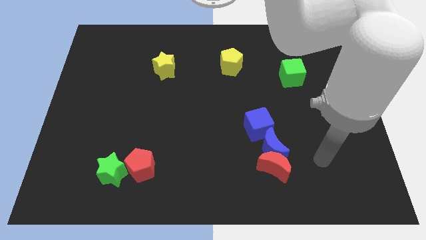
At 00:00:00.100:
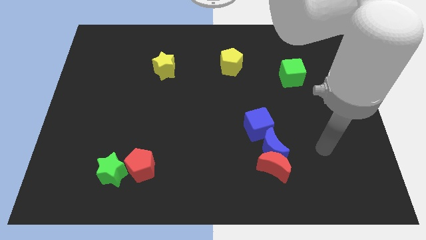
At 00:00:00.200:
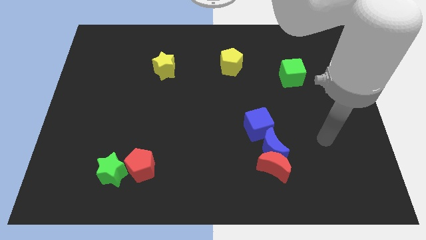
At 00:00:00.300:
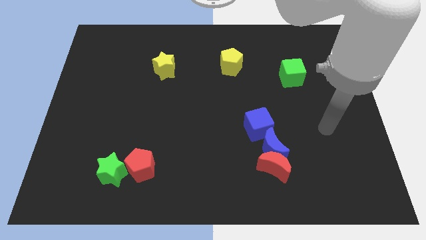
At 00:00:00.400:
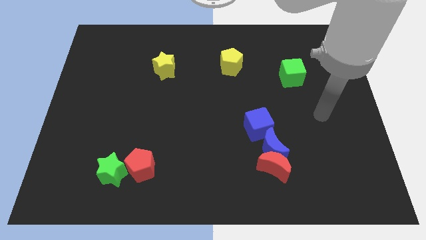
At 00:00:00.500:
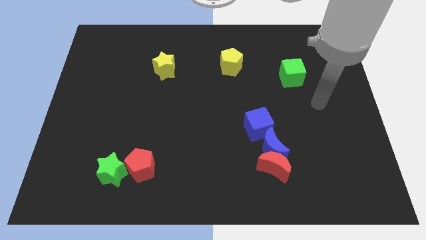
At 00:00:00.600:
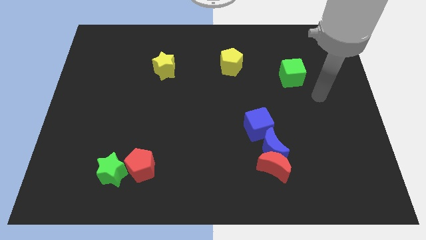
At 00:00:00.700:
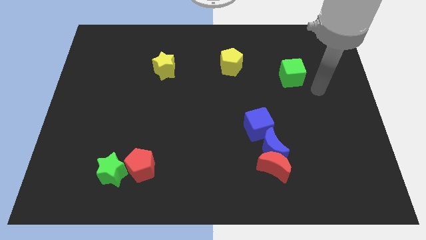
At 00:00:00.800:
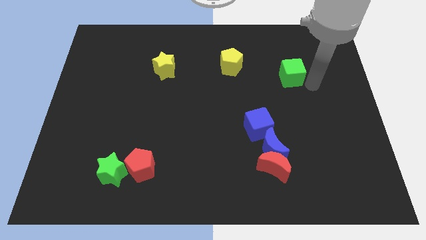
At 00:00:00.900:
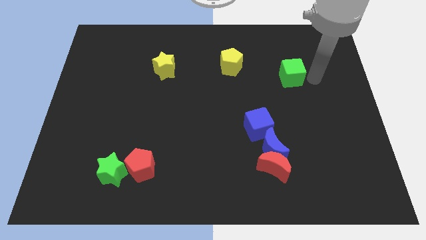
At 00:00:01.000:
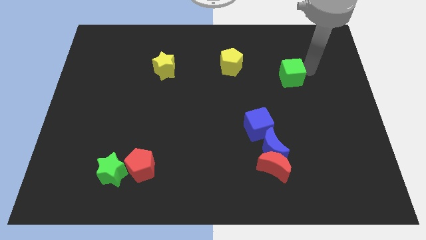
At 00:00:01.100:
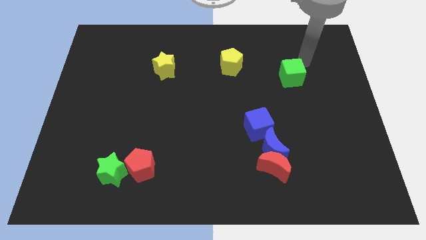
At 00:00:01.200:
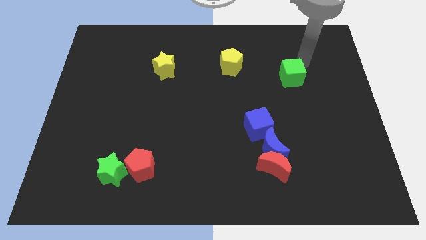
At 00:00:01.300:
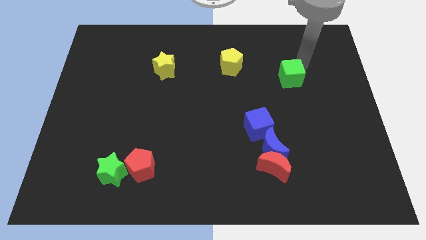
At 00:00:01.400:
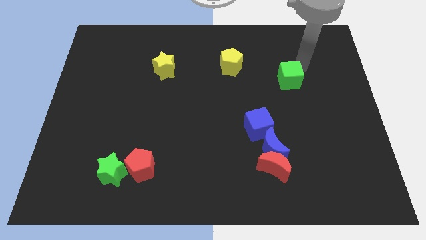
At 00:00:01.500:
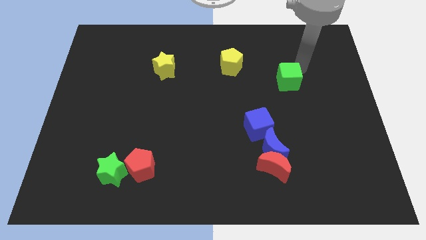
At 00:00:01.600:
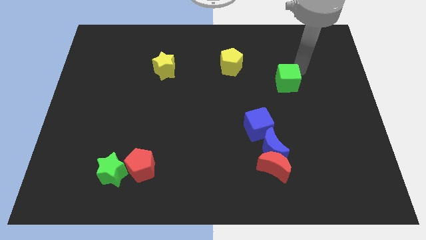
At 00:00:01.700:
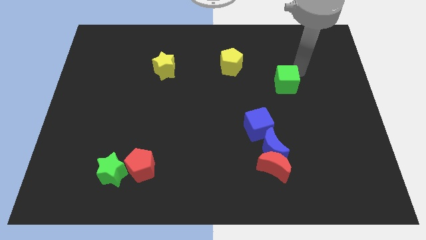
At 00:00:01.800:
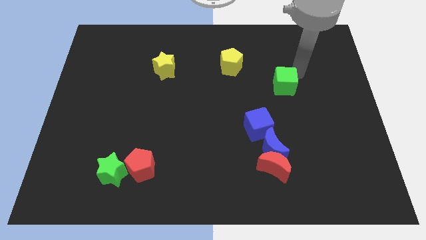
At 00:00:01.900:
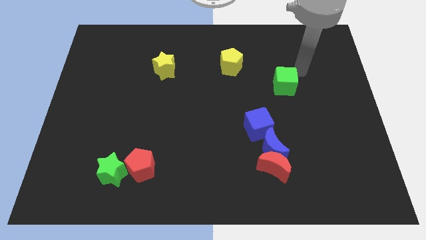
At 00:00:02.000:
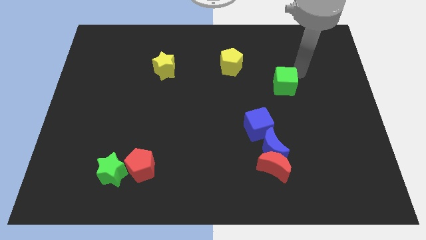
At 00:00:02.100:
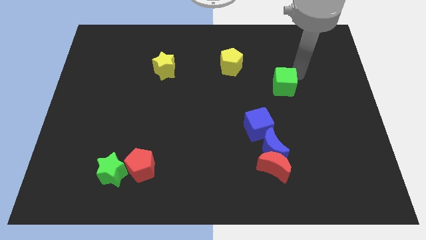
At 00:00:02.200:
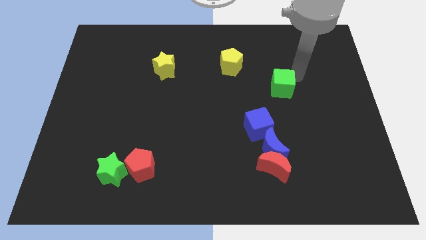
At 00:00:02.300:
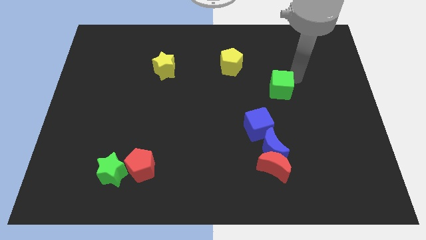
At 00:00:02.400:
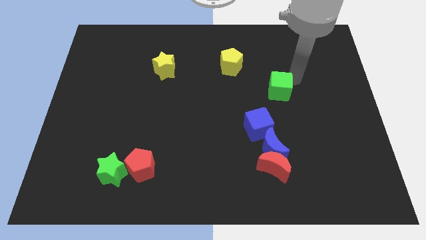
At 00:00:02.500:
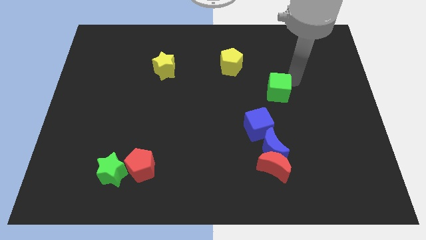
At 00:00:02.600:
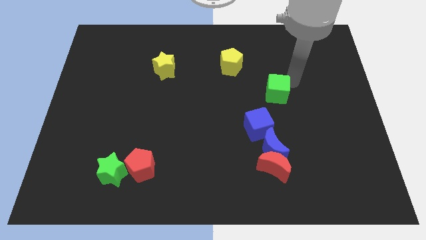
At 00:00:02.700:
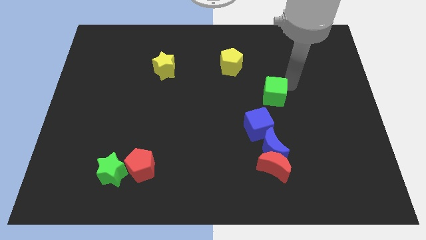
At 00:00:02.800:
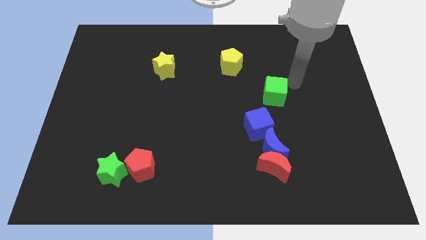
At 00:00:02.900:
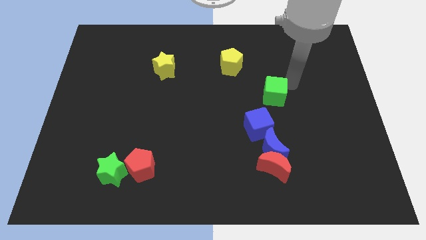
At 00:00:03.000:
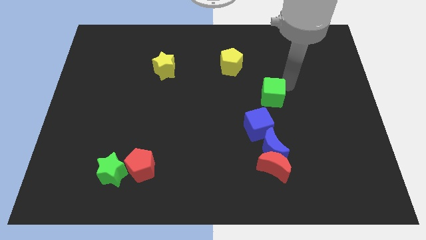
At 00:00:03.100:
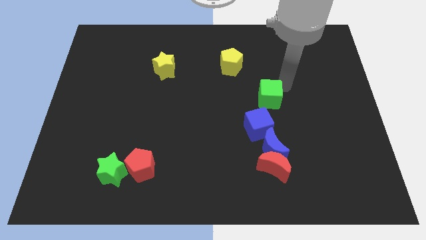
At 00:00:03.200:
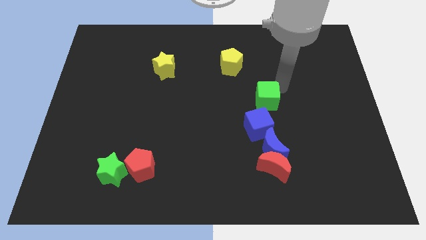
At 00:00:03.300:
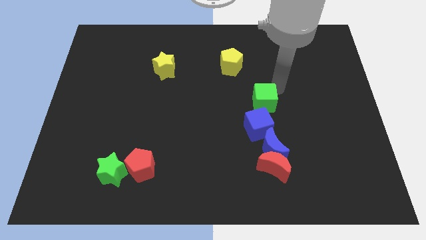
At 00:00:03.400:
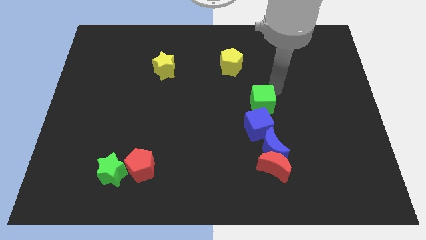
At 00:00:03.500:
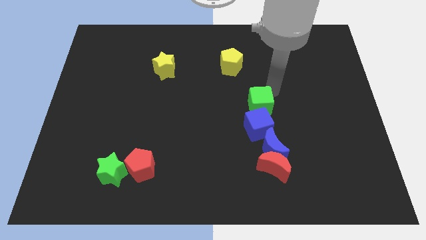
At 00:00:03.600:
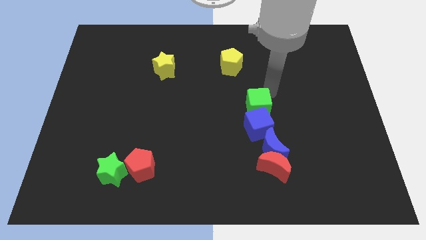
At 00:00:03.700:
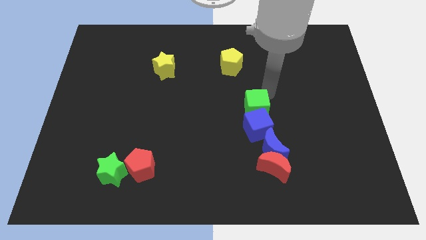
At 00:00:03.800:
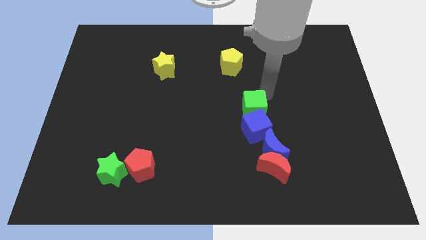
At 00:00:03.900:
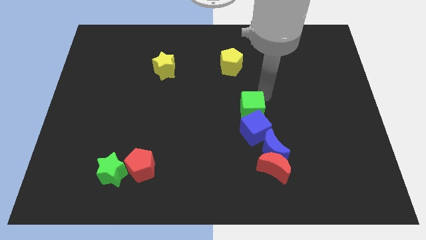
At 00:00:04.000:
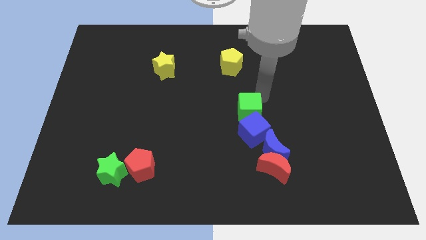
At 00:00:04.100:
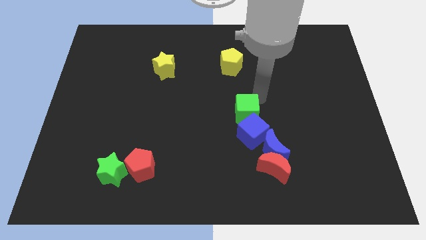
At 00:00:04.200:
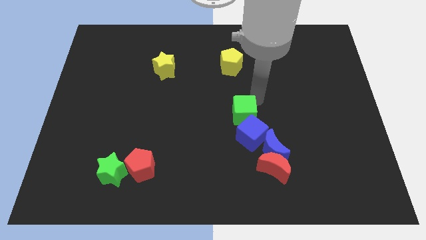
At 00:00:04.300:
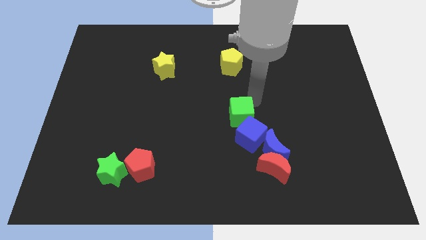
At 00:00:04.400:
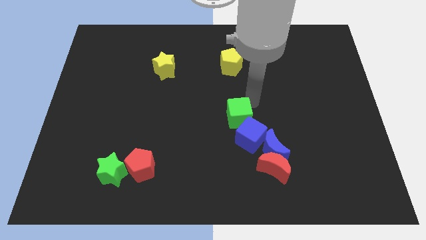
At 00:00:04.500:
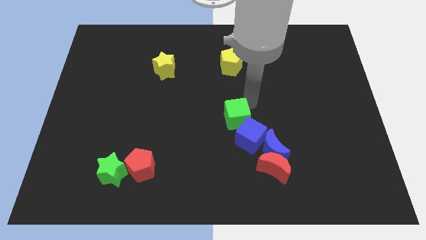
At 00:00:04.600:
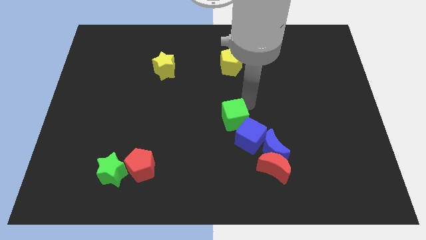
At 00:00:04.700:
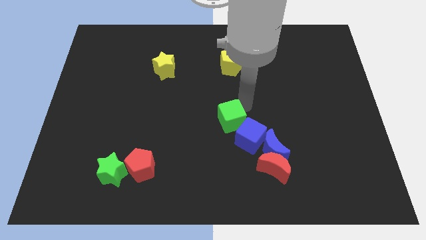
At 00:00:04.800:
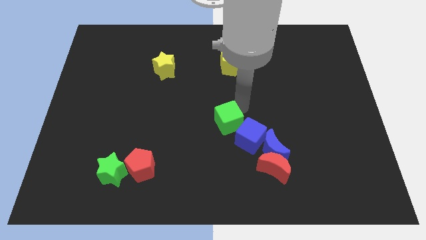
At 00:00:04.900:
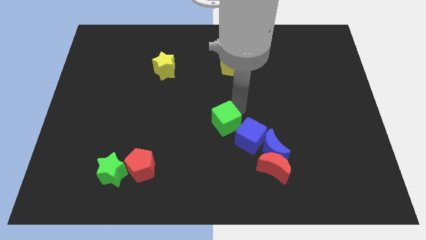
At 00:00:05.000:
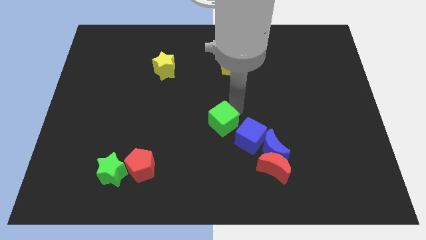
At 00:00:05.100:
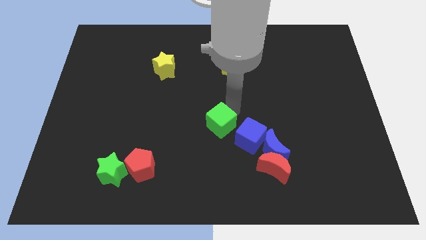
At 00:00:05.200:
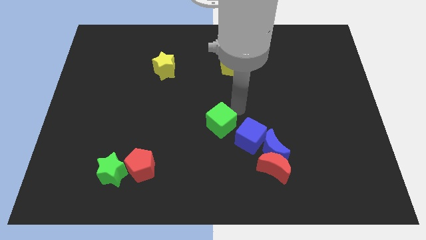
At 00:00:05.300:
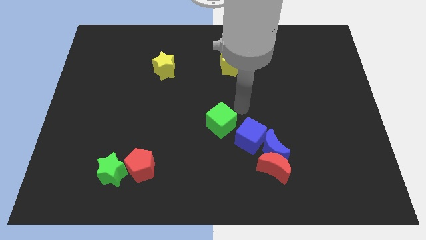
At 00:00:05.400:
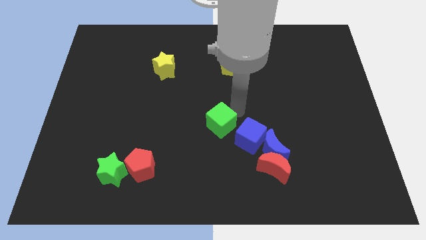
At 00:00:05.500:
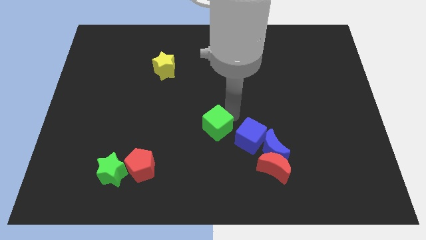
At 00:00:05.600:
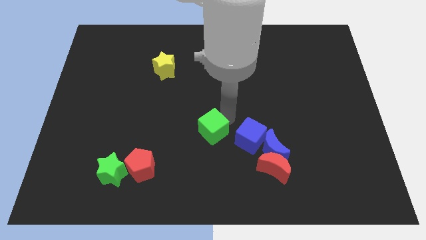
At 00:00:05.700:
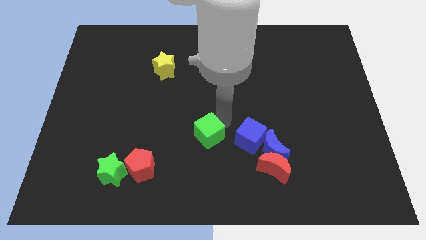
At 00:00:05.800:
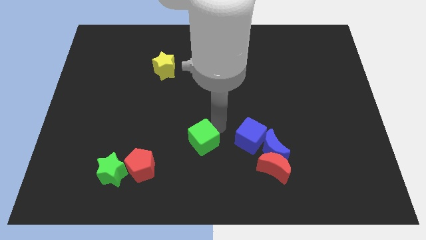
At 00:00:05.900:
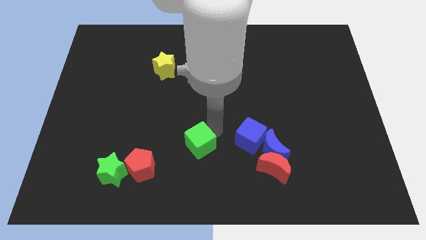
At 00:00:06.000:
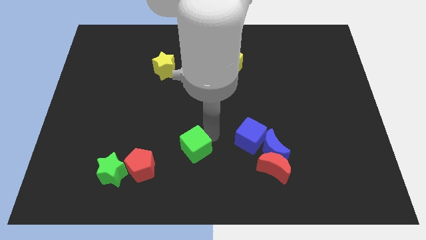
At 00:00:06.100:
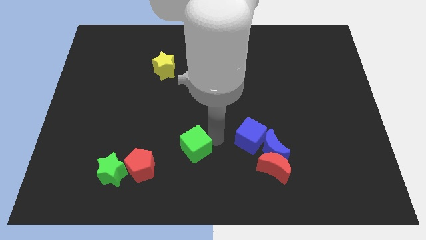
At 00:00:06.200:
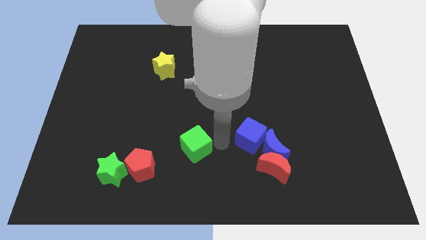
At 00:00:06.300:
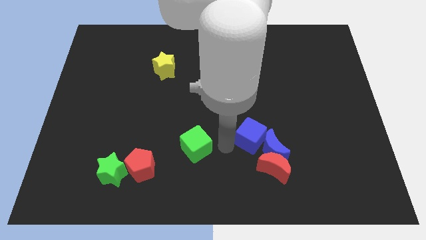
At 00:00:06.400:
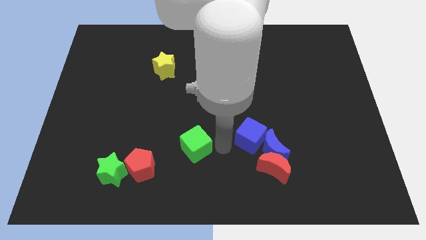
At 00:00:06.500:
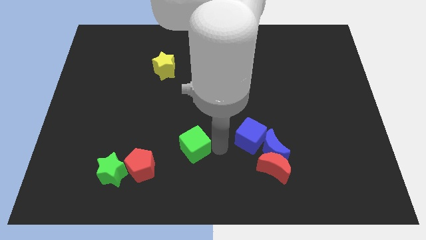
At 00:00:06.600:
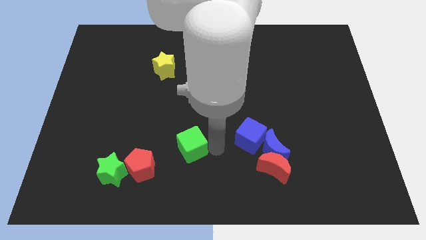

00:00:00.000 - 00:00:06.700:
slide the green cube to the top right of the red pentagon
